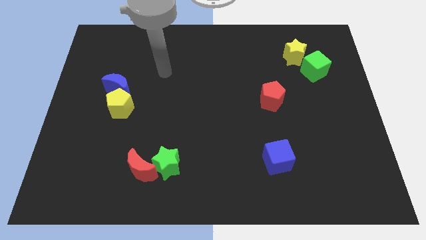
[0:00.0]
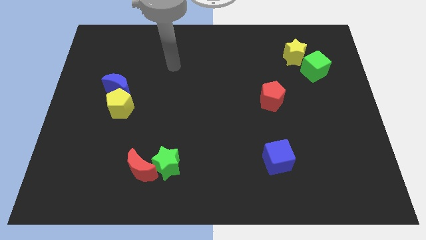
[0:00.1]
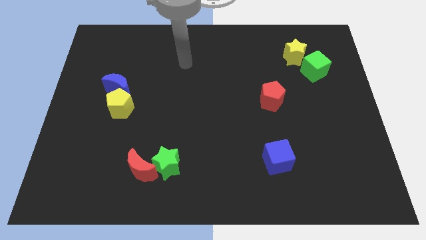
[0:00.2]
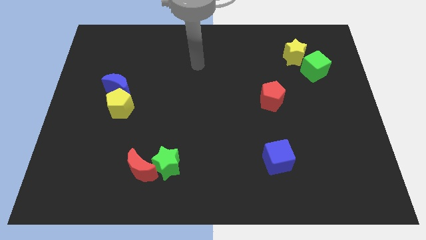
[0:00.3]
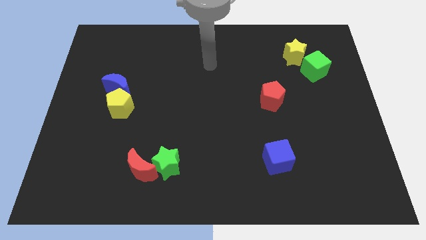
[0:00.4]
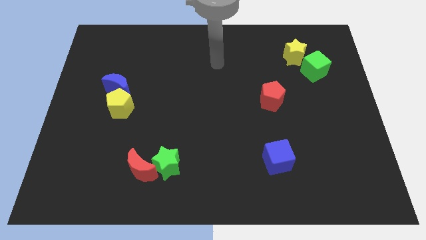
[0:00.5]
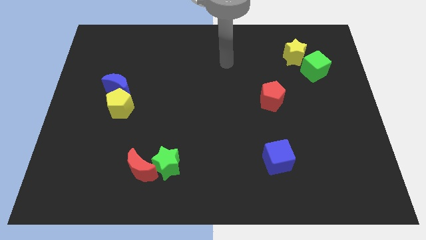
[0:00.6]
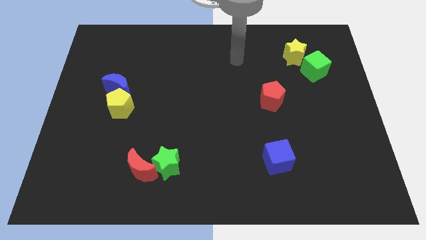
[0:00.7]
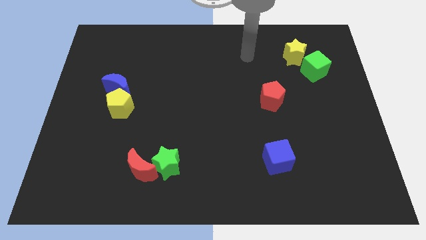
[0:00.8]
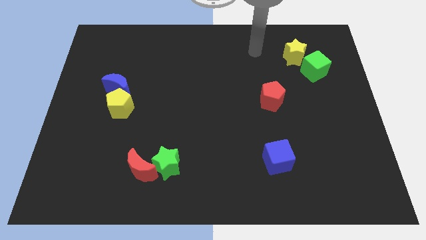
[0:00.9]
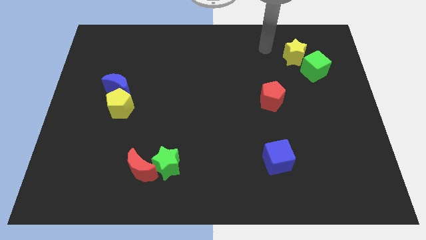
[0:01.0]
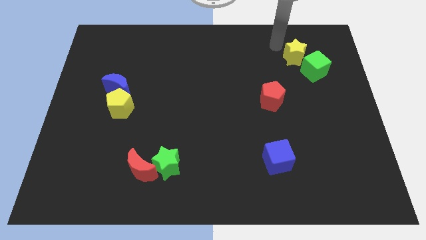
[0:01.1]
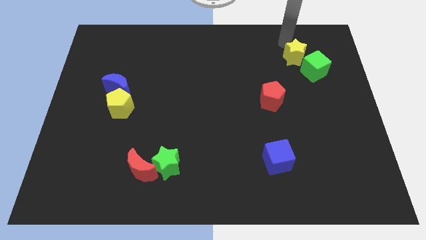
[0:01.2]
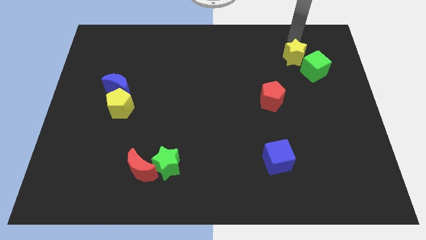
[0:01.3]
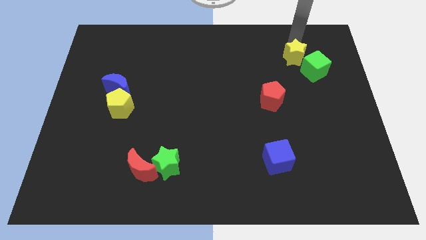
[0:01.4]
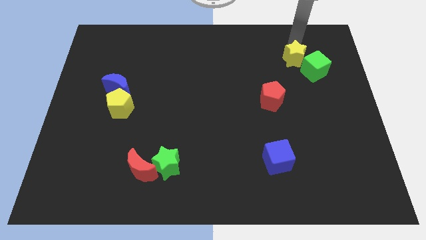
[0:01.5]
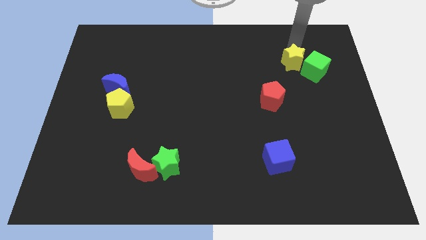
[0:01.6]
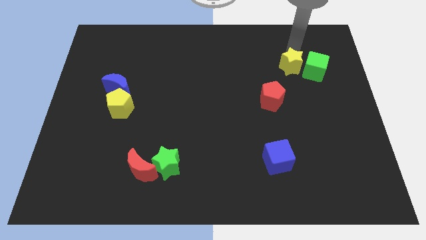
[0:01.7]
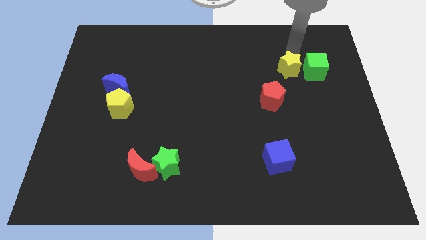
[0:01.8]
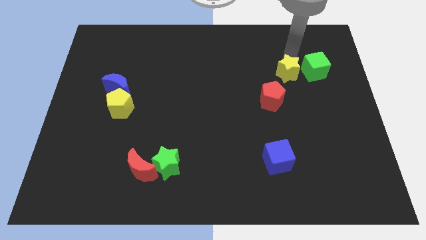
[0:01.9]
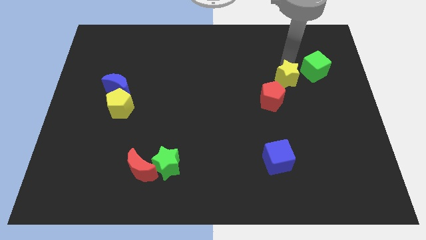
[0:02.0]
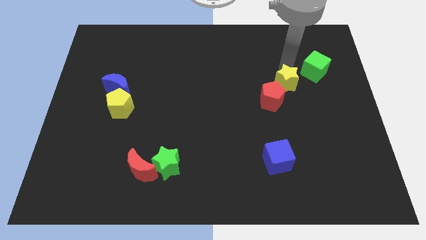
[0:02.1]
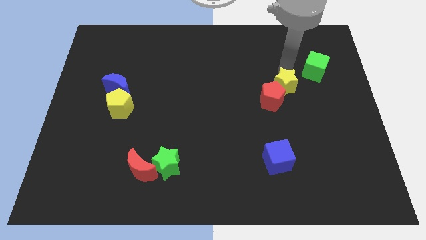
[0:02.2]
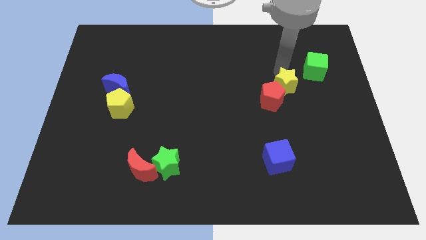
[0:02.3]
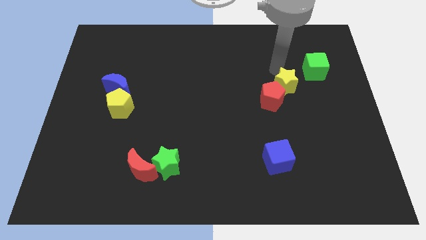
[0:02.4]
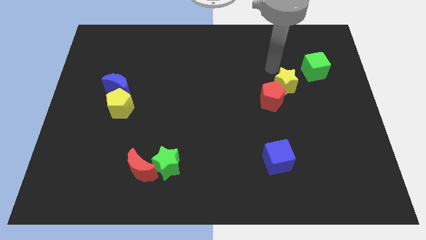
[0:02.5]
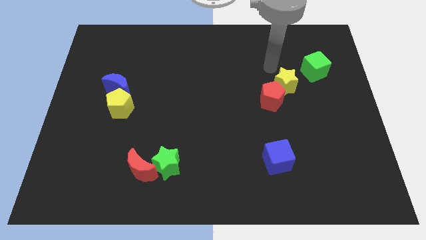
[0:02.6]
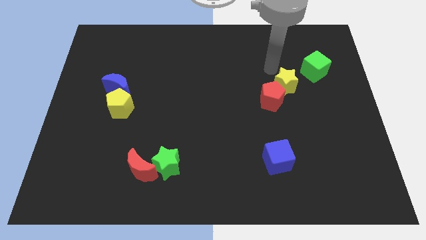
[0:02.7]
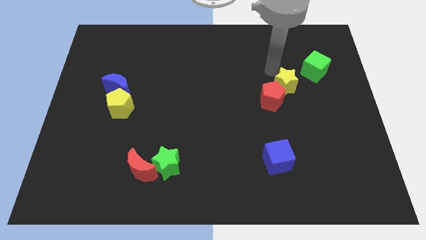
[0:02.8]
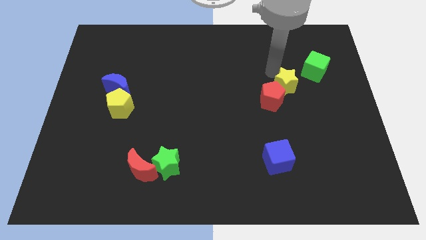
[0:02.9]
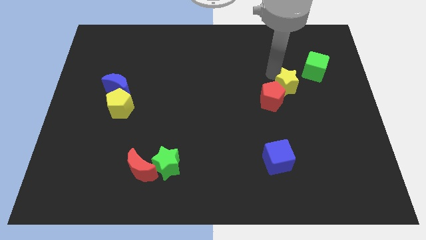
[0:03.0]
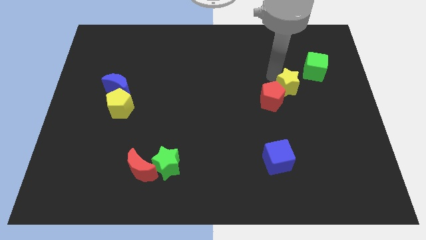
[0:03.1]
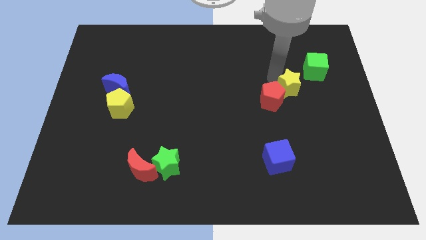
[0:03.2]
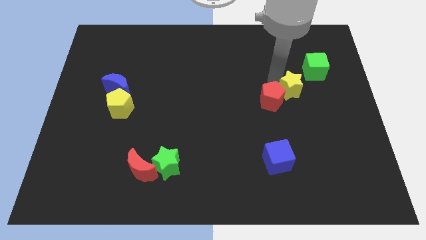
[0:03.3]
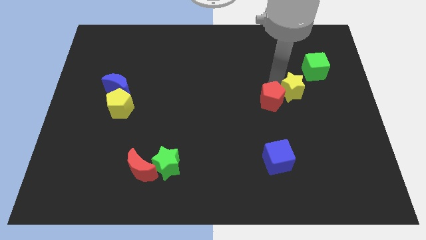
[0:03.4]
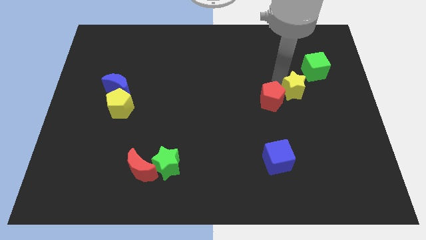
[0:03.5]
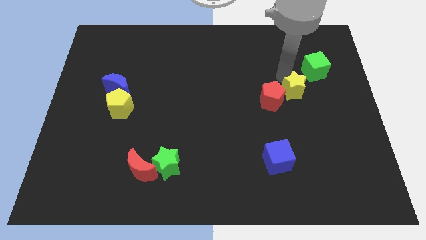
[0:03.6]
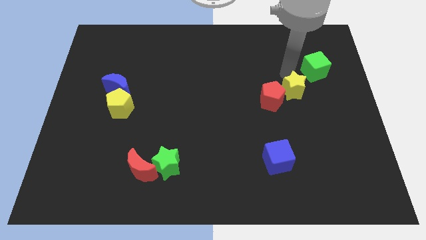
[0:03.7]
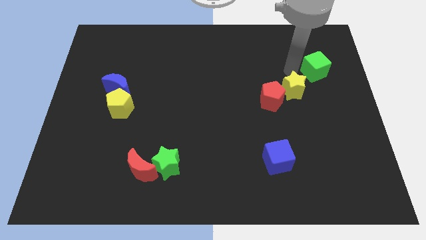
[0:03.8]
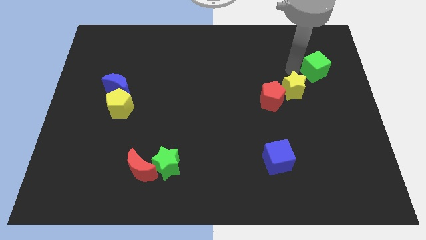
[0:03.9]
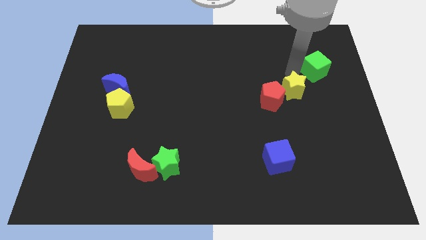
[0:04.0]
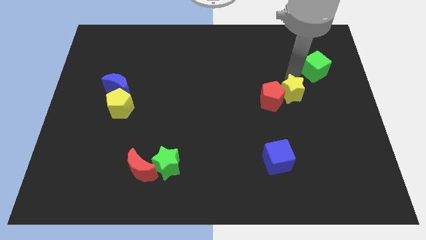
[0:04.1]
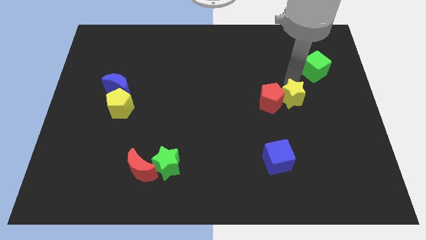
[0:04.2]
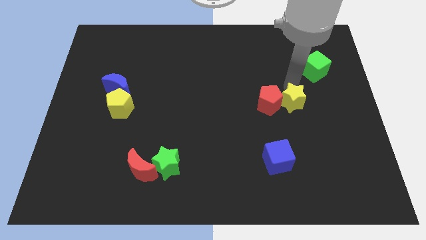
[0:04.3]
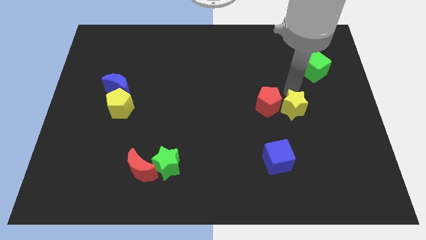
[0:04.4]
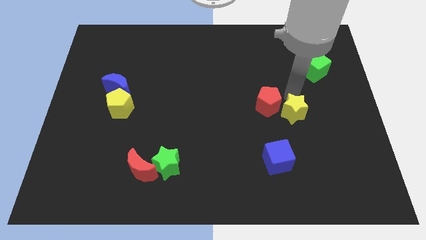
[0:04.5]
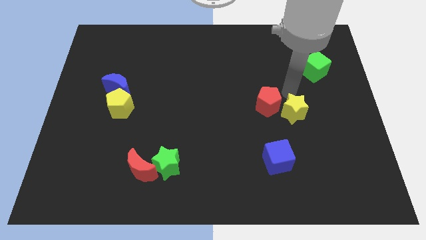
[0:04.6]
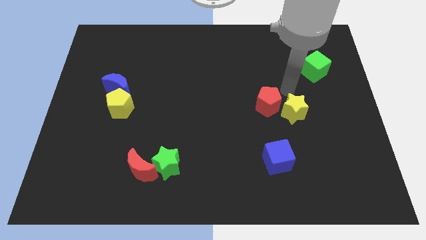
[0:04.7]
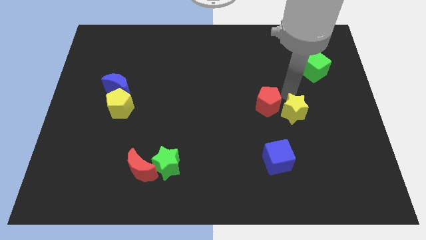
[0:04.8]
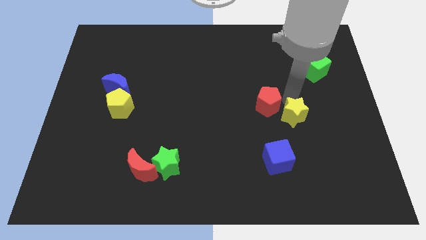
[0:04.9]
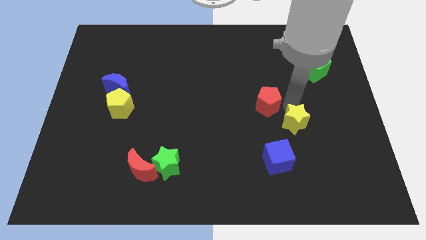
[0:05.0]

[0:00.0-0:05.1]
put the yellow star to the top right of the blue cube

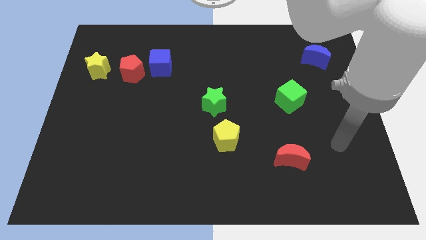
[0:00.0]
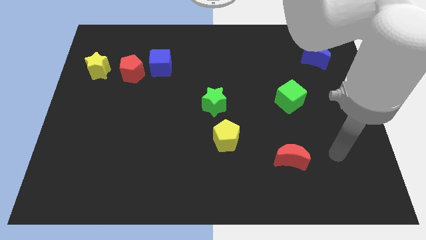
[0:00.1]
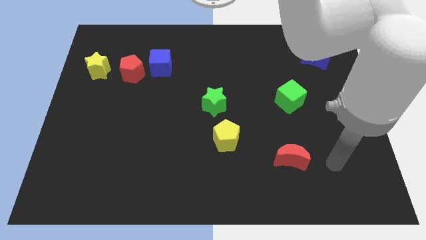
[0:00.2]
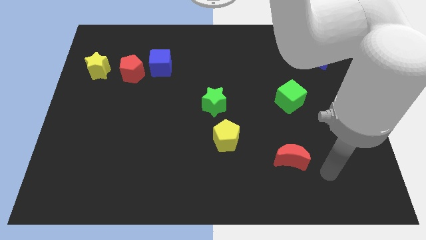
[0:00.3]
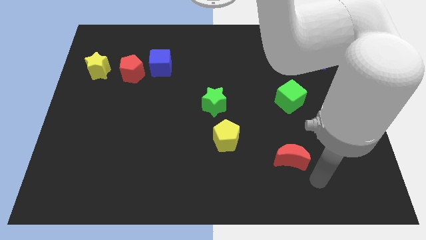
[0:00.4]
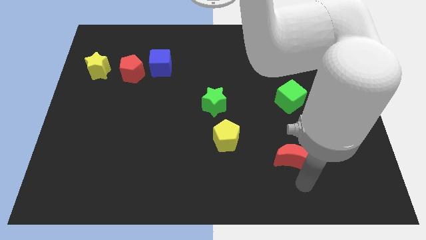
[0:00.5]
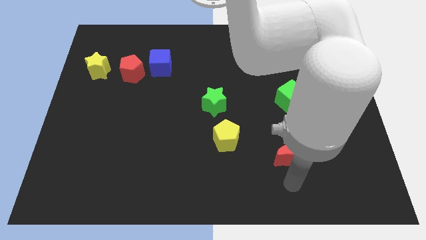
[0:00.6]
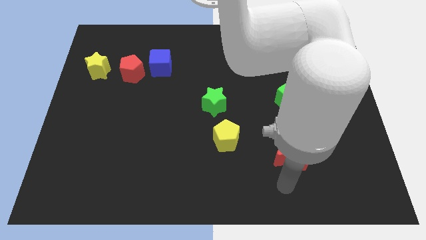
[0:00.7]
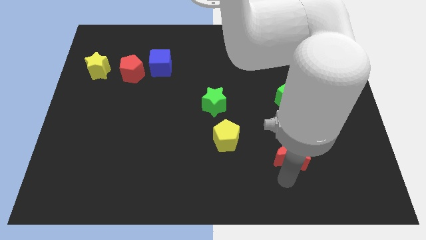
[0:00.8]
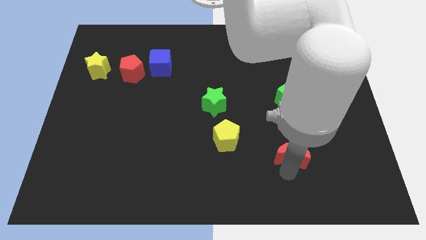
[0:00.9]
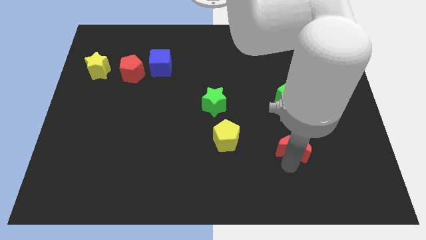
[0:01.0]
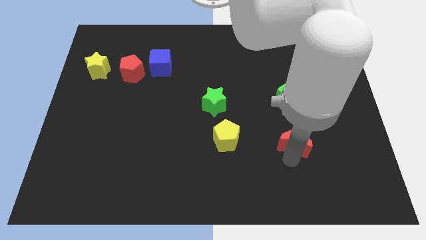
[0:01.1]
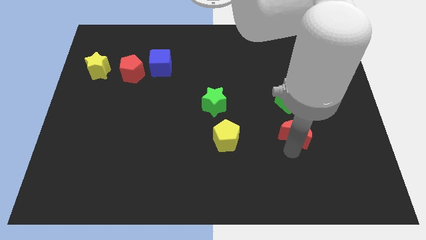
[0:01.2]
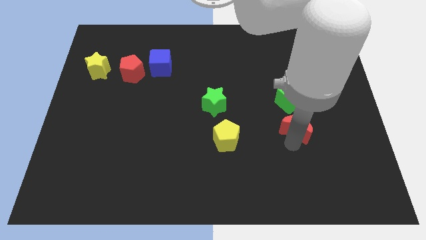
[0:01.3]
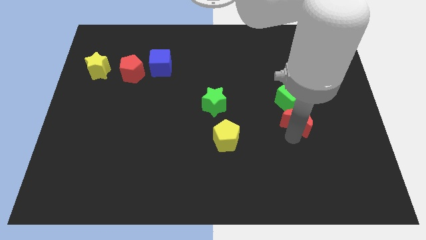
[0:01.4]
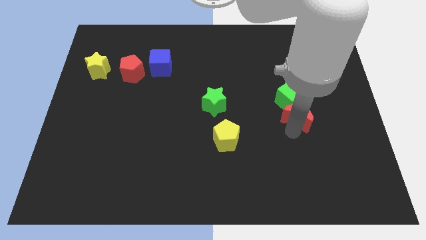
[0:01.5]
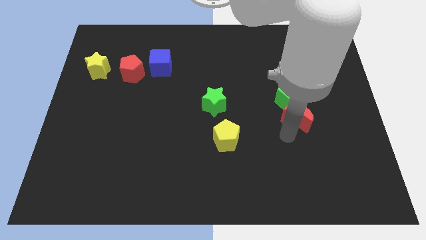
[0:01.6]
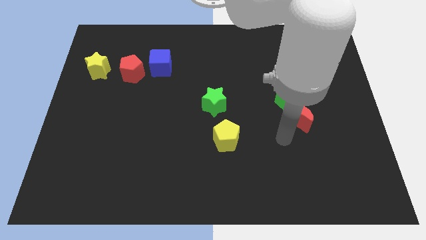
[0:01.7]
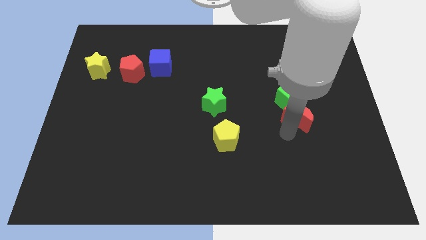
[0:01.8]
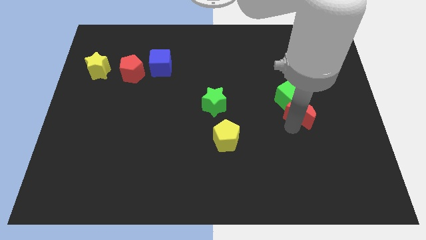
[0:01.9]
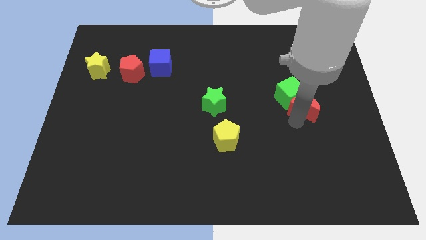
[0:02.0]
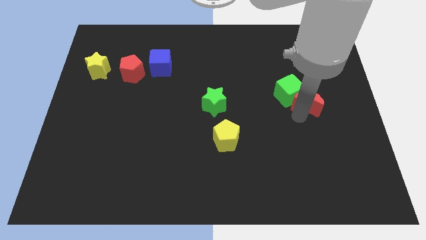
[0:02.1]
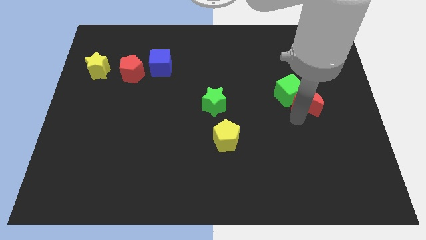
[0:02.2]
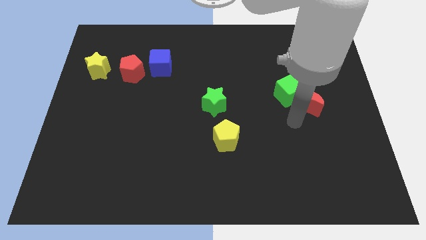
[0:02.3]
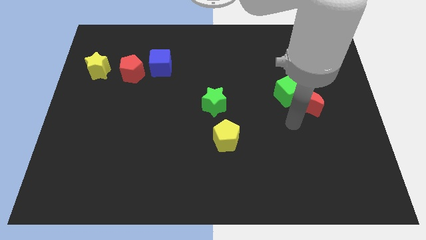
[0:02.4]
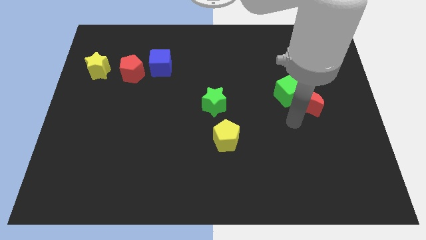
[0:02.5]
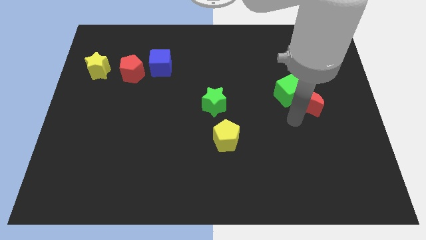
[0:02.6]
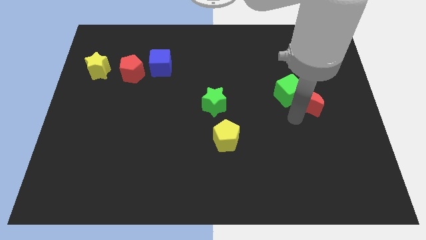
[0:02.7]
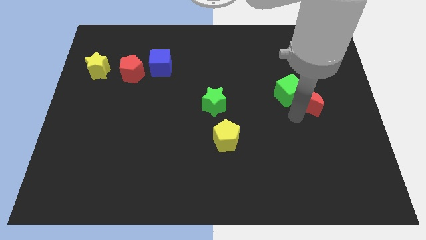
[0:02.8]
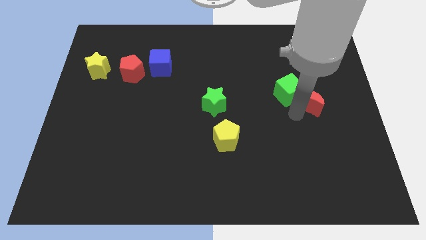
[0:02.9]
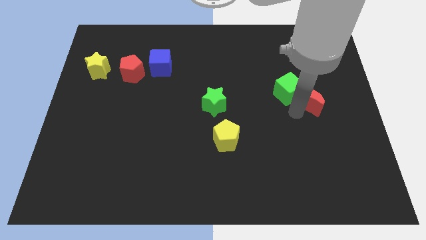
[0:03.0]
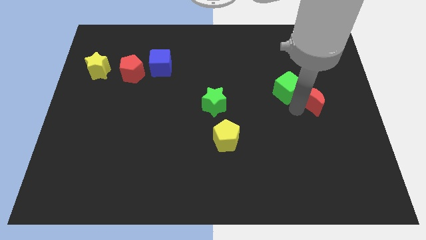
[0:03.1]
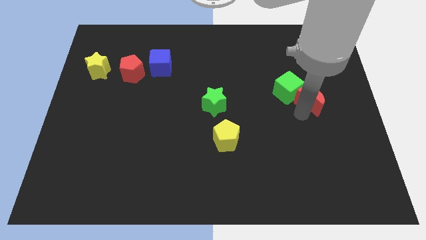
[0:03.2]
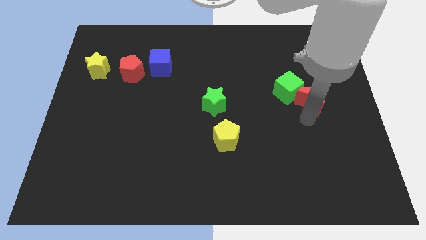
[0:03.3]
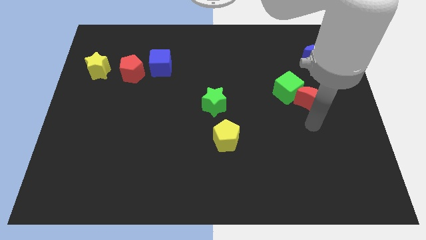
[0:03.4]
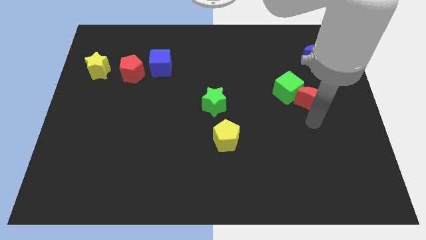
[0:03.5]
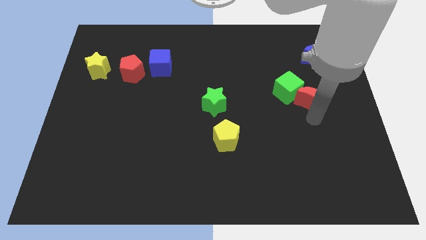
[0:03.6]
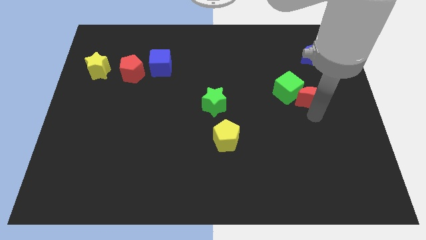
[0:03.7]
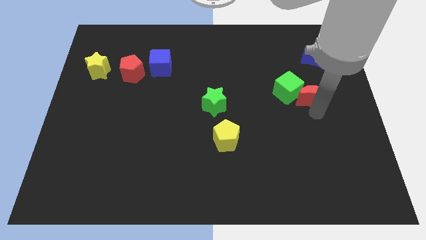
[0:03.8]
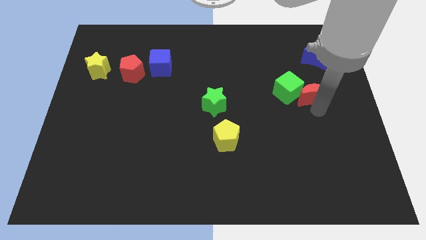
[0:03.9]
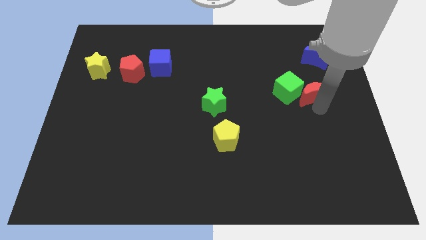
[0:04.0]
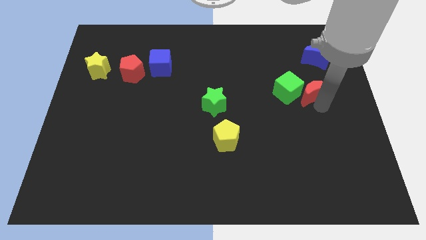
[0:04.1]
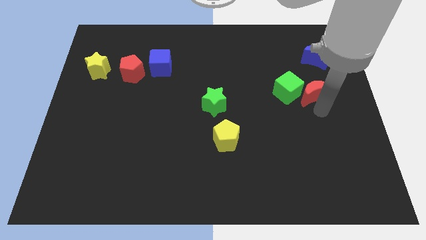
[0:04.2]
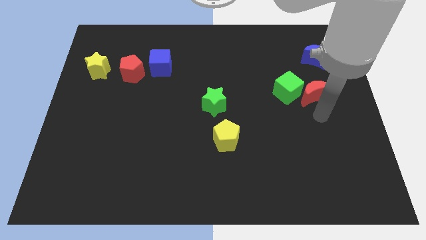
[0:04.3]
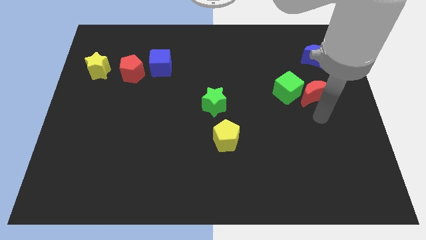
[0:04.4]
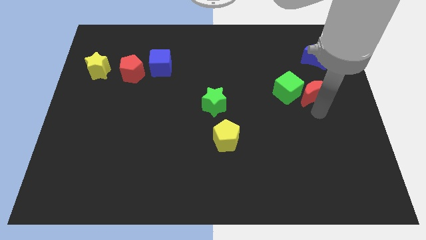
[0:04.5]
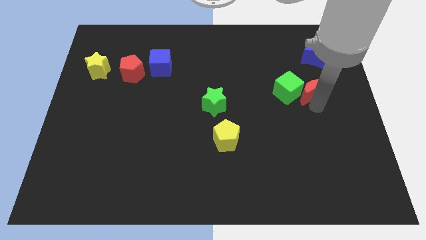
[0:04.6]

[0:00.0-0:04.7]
push the red moon to the top right side of the green cube
